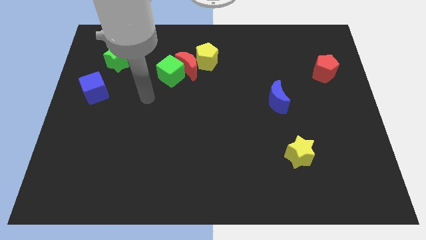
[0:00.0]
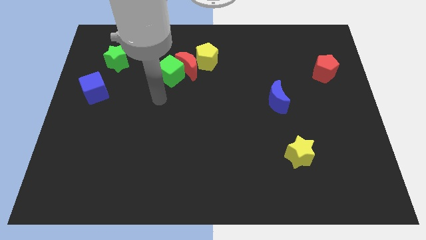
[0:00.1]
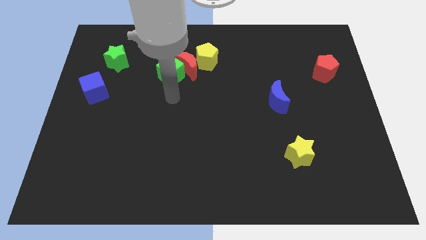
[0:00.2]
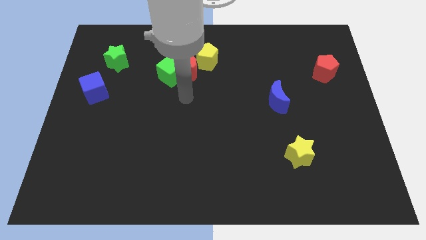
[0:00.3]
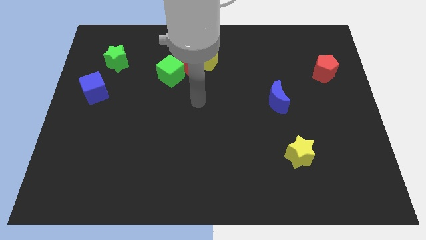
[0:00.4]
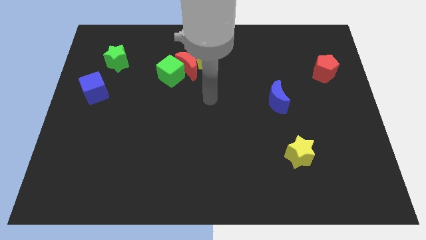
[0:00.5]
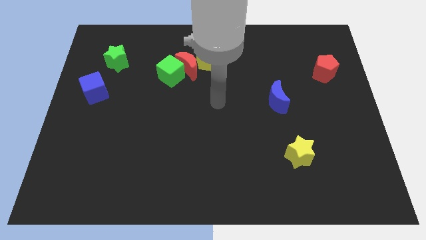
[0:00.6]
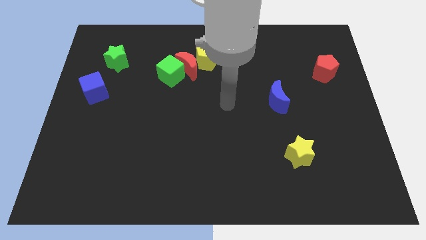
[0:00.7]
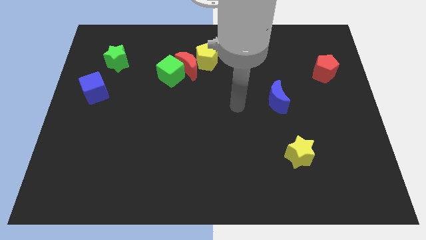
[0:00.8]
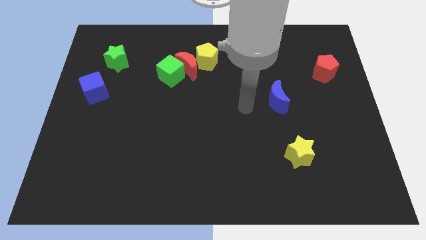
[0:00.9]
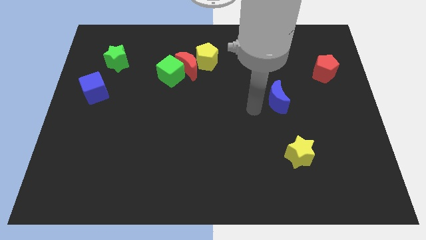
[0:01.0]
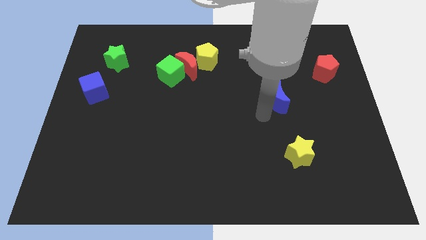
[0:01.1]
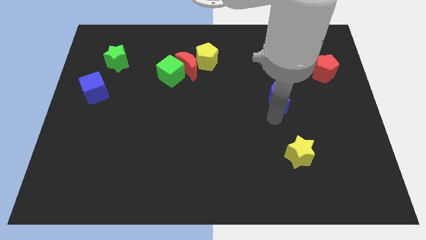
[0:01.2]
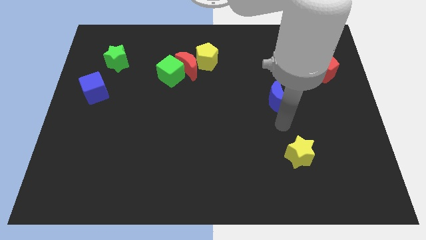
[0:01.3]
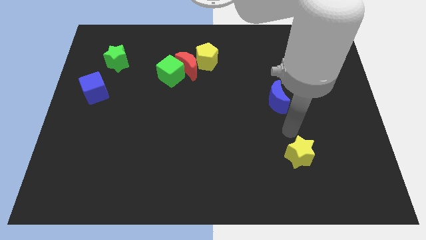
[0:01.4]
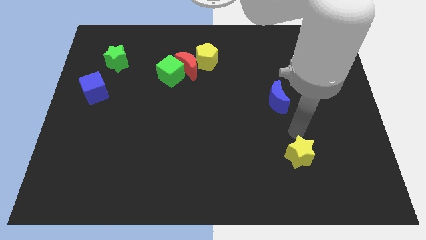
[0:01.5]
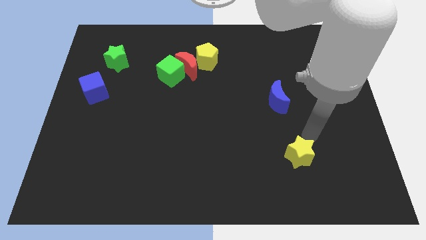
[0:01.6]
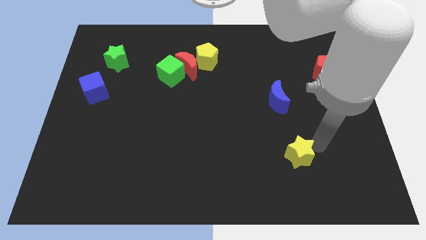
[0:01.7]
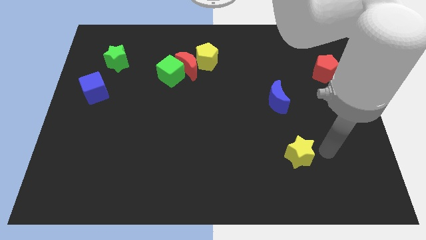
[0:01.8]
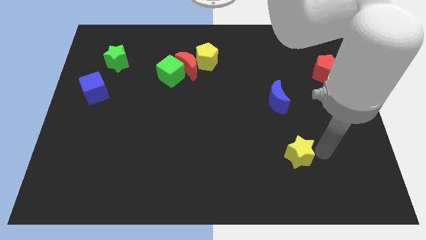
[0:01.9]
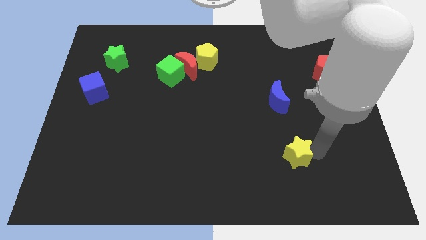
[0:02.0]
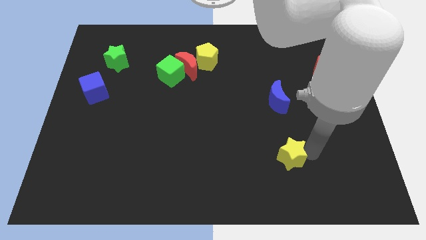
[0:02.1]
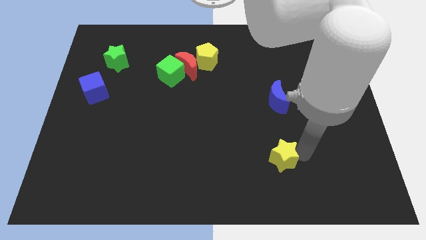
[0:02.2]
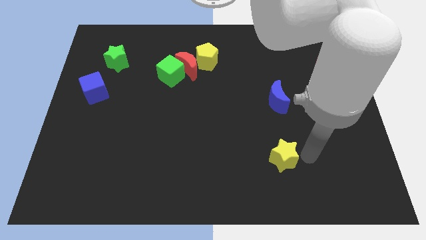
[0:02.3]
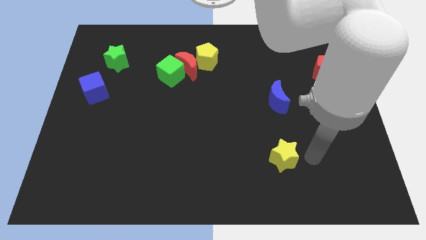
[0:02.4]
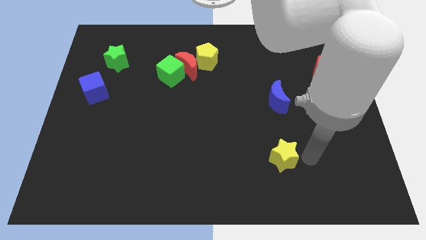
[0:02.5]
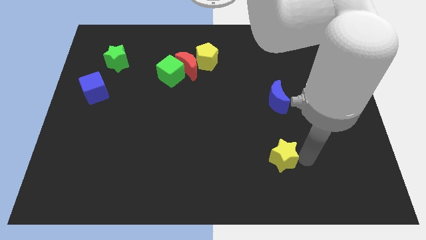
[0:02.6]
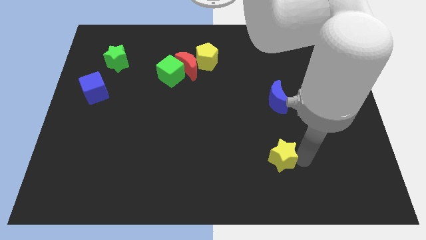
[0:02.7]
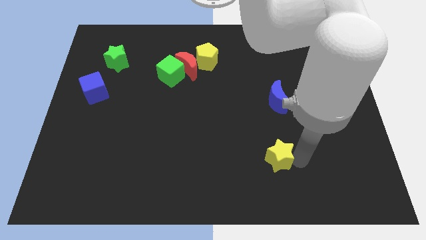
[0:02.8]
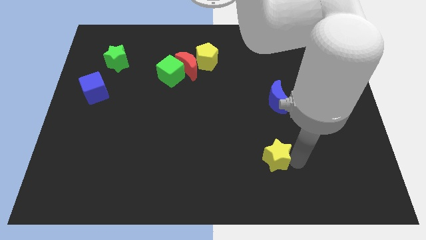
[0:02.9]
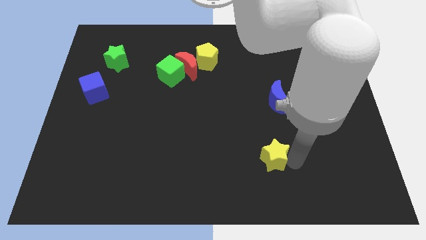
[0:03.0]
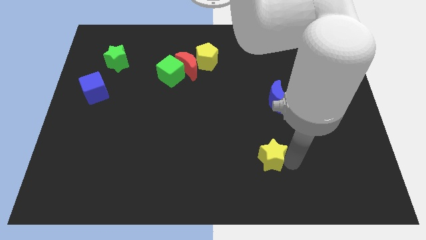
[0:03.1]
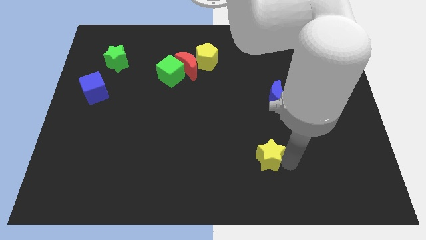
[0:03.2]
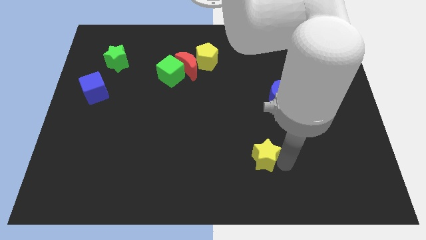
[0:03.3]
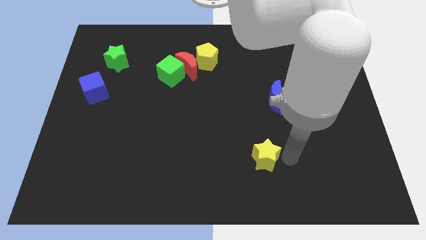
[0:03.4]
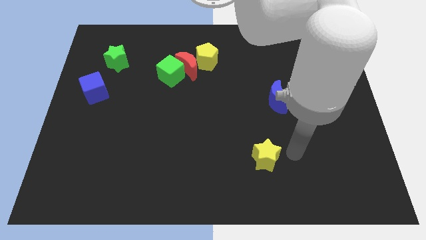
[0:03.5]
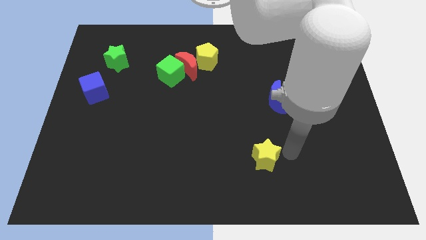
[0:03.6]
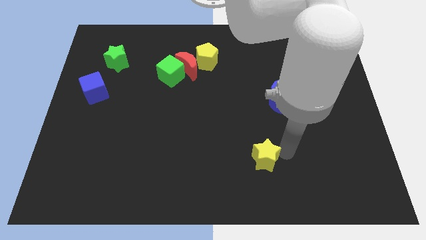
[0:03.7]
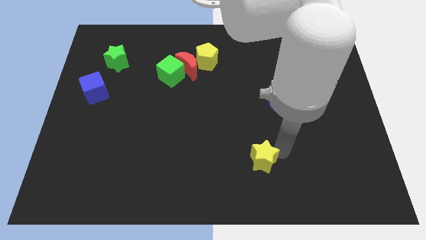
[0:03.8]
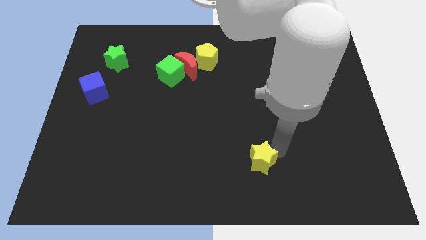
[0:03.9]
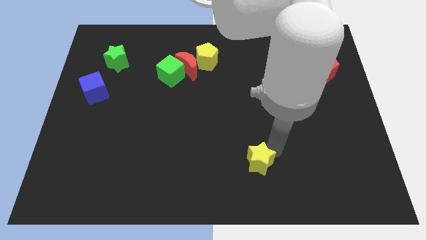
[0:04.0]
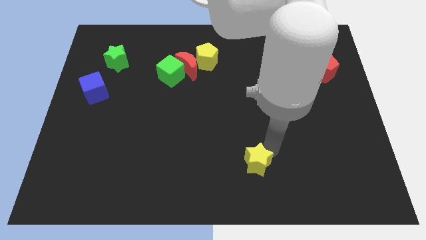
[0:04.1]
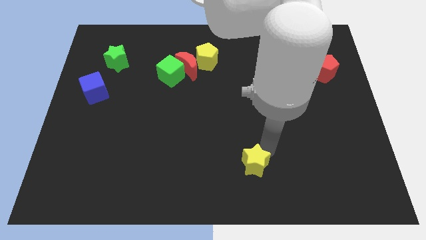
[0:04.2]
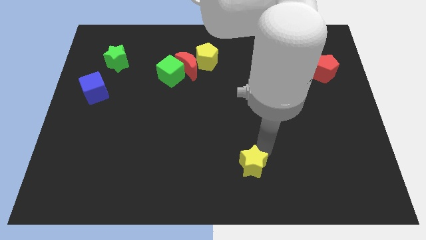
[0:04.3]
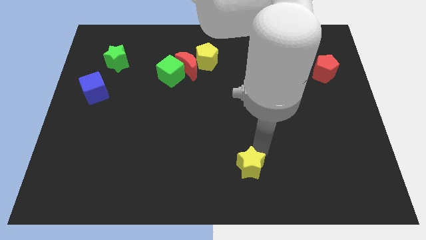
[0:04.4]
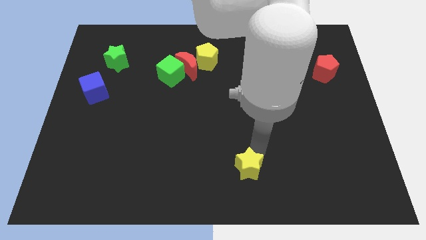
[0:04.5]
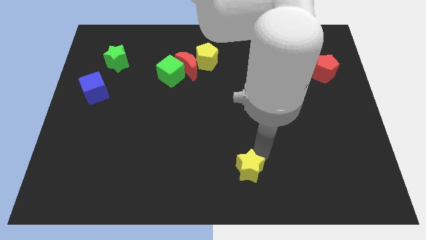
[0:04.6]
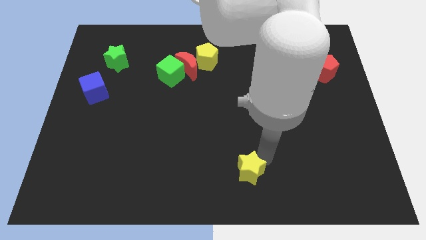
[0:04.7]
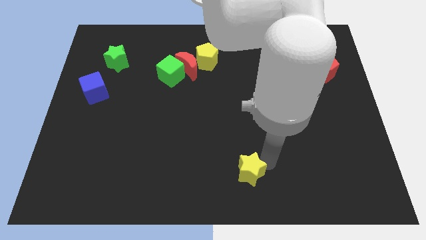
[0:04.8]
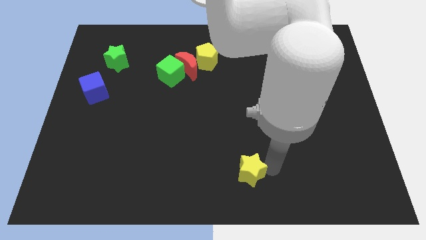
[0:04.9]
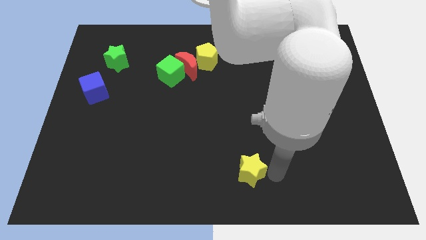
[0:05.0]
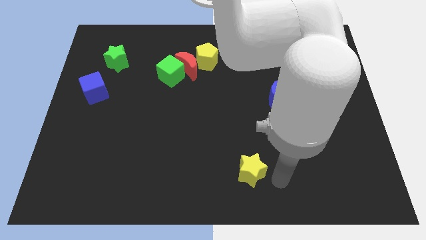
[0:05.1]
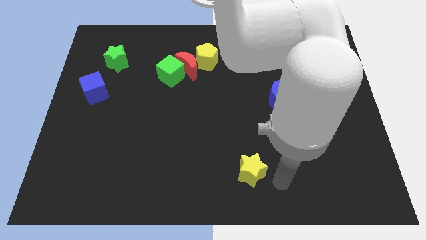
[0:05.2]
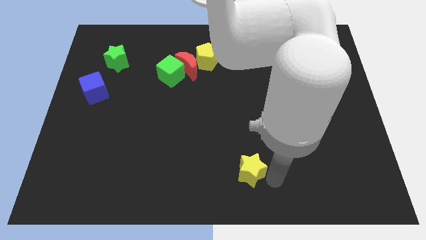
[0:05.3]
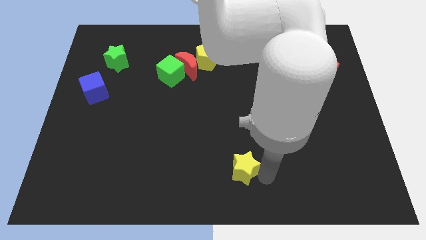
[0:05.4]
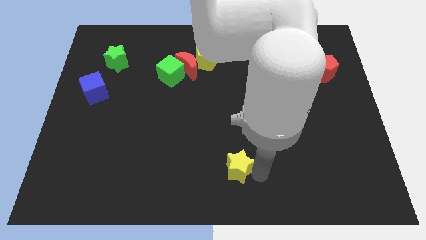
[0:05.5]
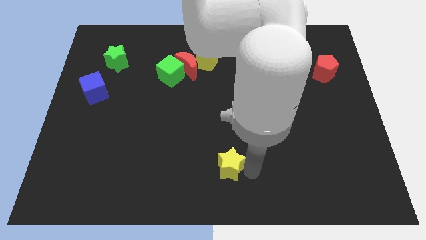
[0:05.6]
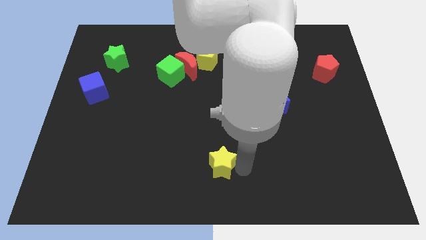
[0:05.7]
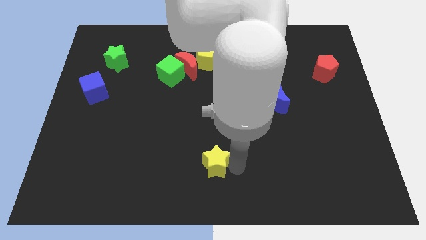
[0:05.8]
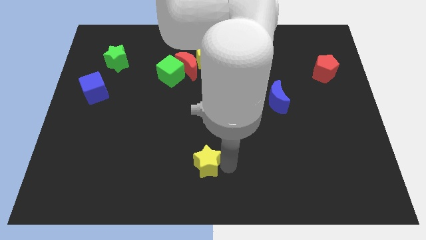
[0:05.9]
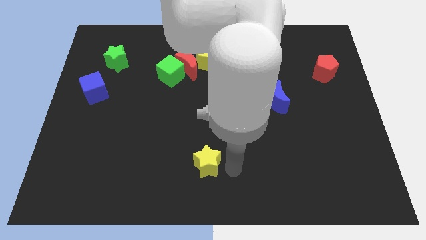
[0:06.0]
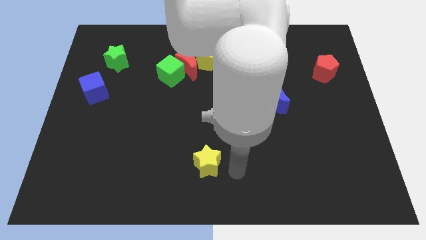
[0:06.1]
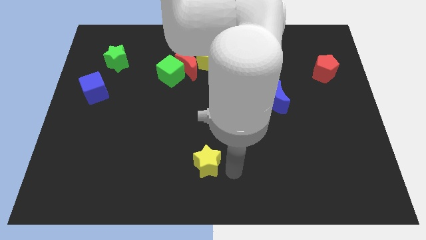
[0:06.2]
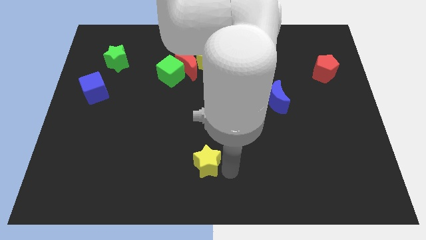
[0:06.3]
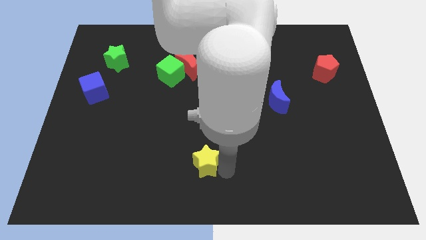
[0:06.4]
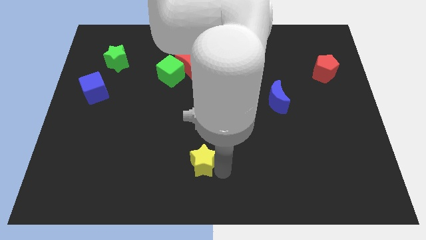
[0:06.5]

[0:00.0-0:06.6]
push the yellow star left

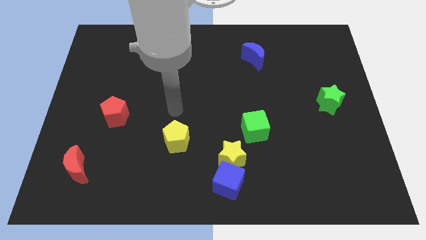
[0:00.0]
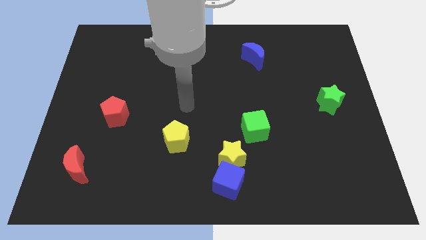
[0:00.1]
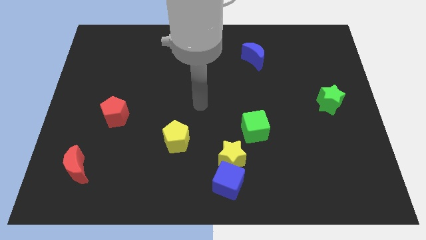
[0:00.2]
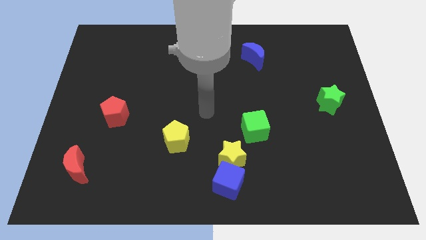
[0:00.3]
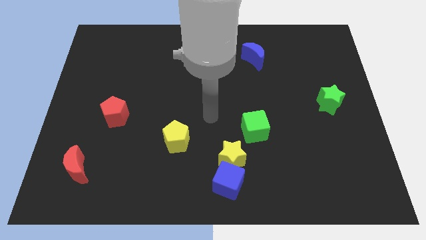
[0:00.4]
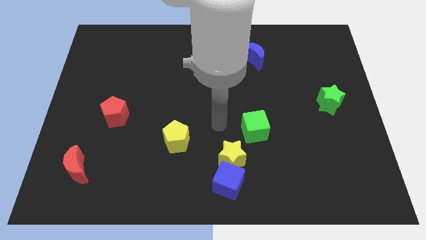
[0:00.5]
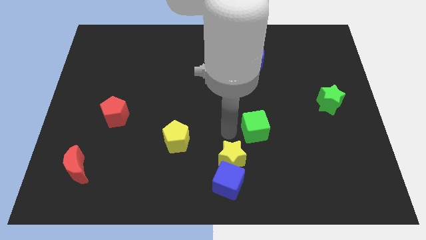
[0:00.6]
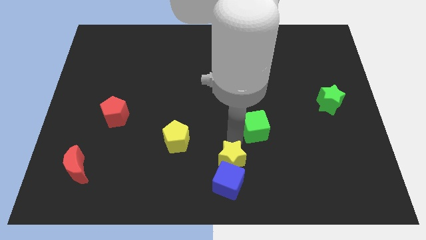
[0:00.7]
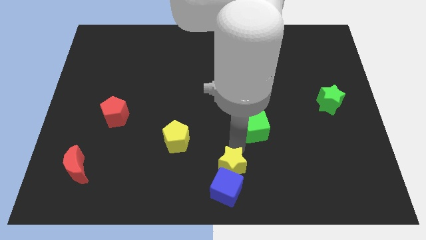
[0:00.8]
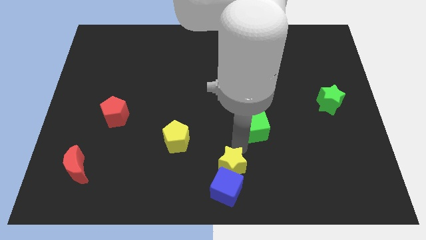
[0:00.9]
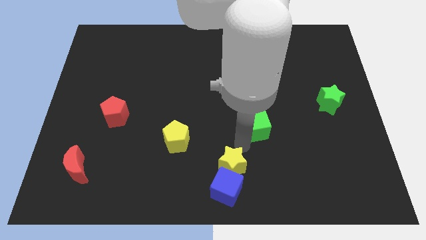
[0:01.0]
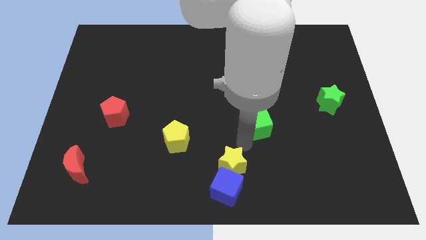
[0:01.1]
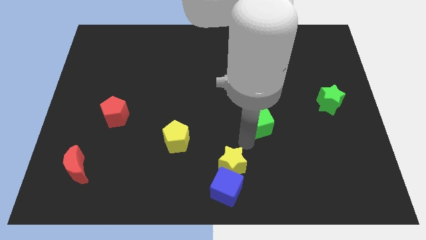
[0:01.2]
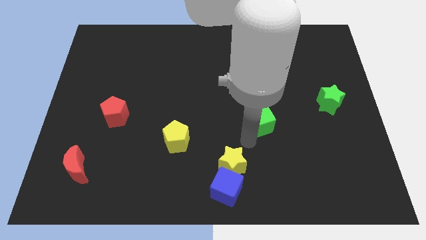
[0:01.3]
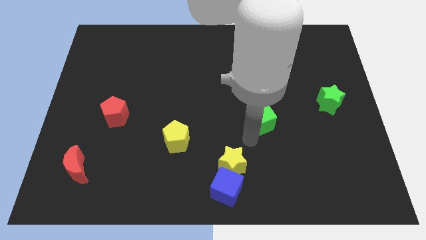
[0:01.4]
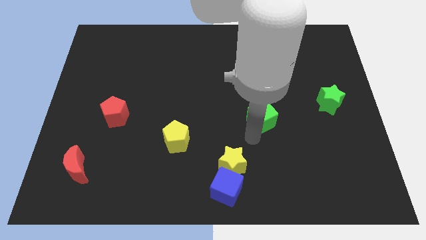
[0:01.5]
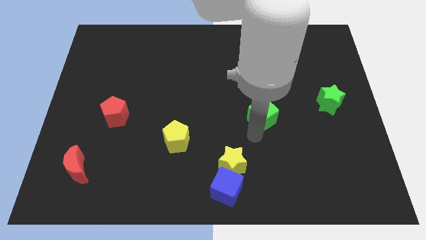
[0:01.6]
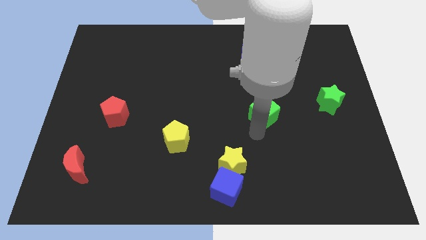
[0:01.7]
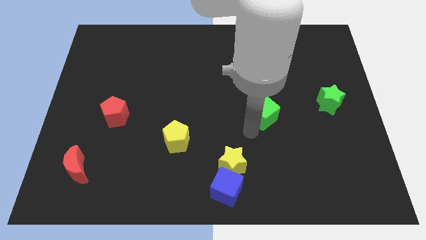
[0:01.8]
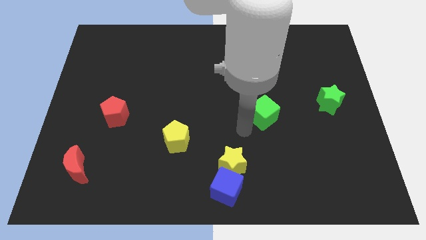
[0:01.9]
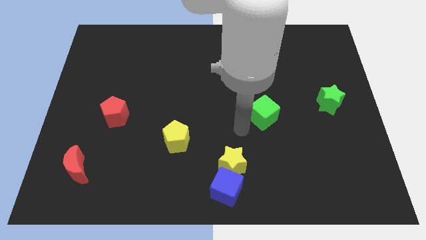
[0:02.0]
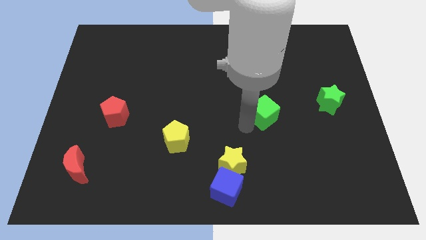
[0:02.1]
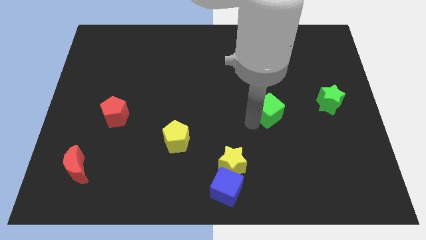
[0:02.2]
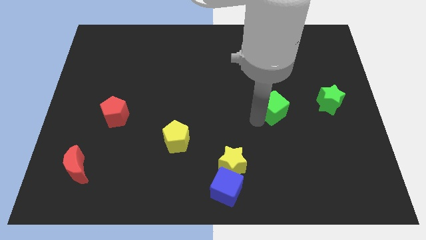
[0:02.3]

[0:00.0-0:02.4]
move the green cube up and then right a bit
